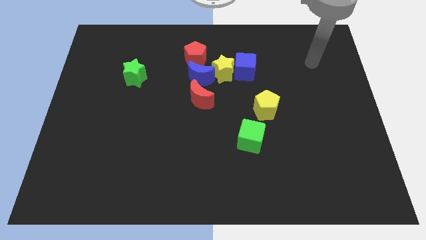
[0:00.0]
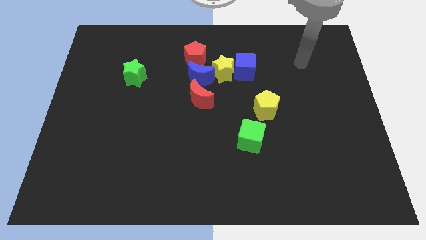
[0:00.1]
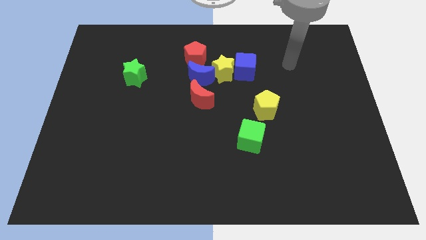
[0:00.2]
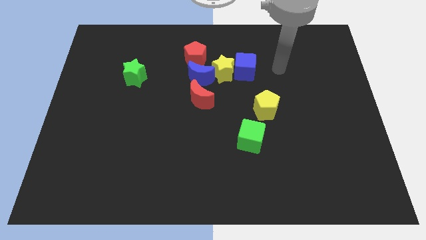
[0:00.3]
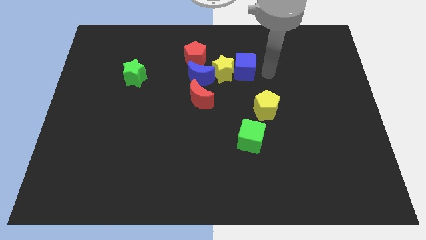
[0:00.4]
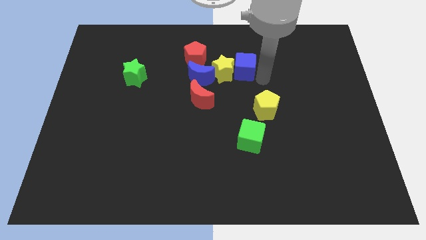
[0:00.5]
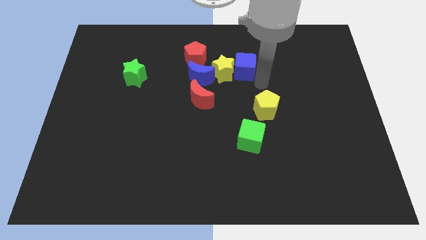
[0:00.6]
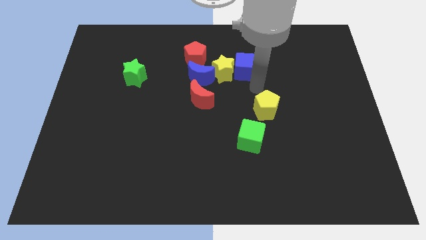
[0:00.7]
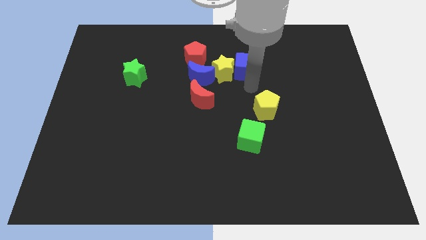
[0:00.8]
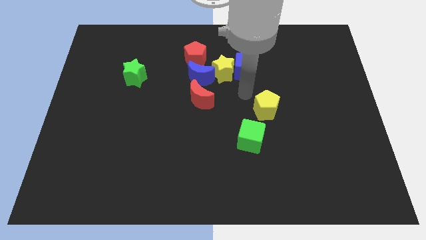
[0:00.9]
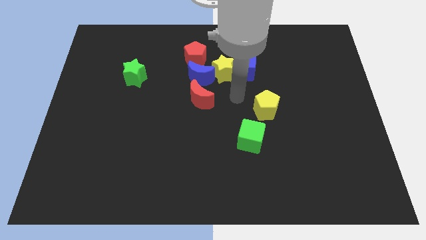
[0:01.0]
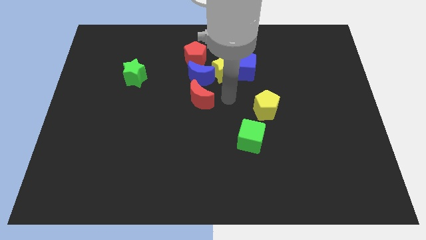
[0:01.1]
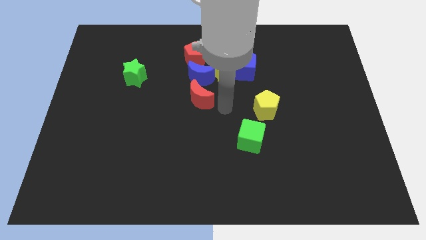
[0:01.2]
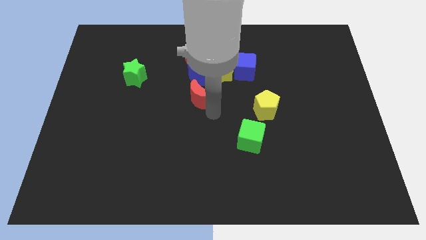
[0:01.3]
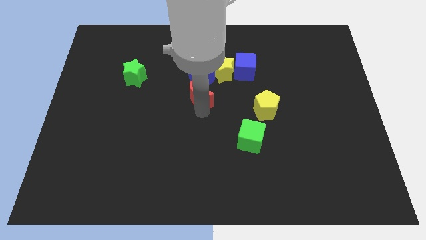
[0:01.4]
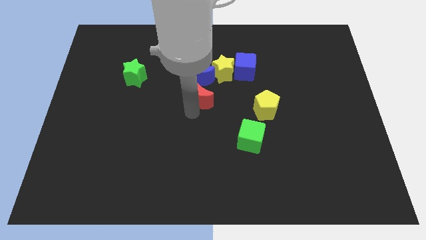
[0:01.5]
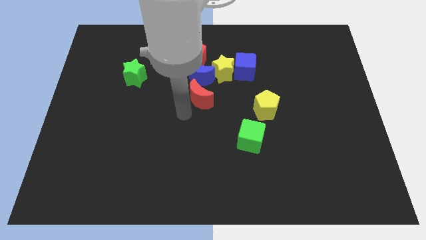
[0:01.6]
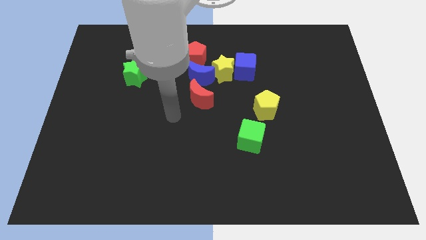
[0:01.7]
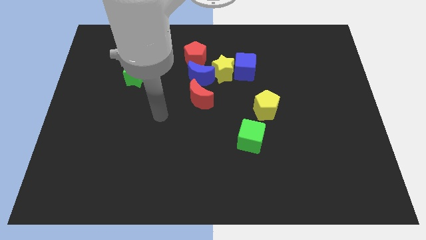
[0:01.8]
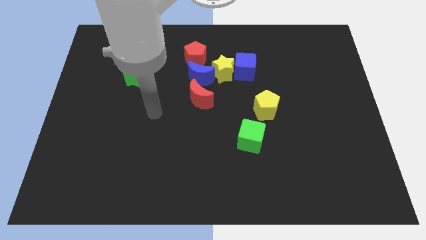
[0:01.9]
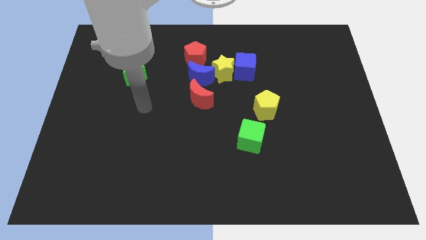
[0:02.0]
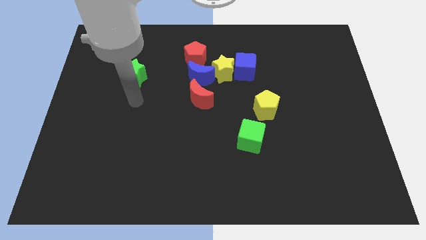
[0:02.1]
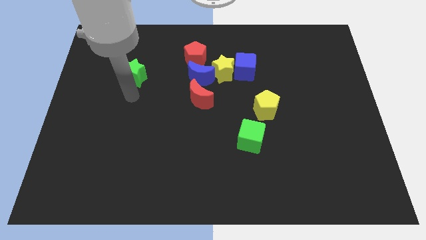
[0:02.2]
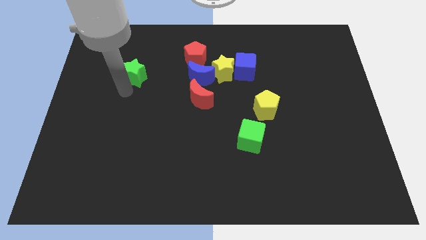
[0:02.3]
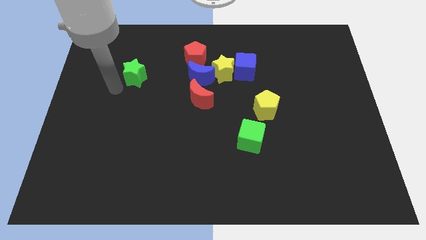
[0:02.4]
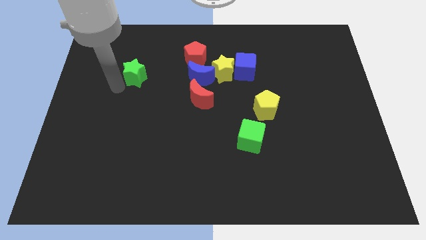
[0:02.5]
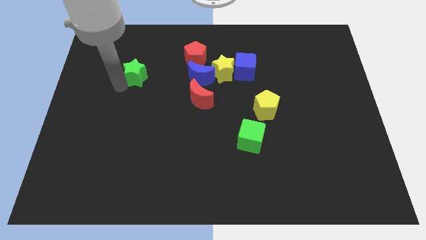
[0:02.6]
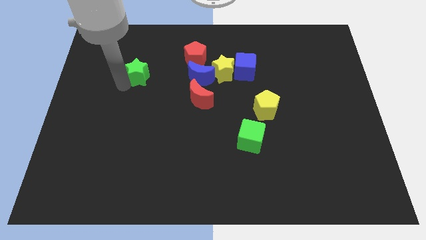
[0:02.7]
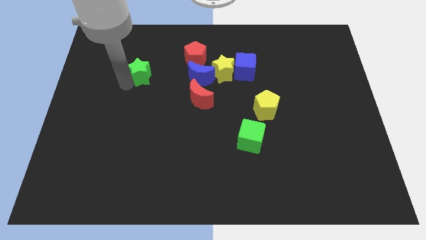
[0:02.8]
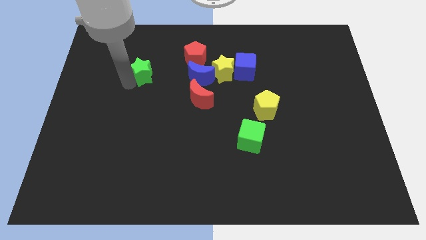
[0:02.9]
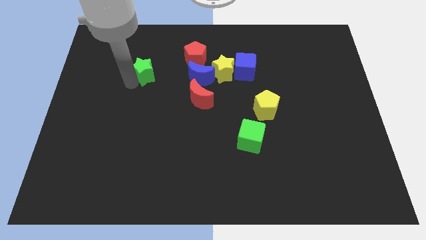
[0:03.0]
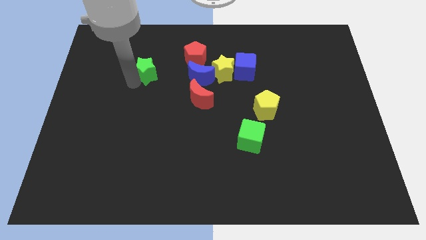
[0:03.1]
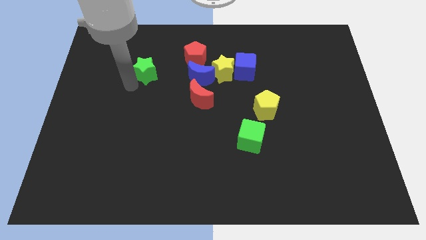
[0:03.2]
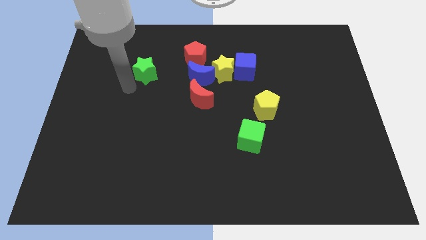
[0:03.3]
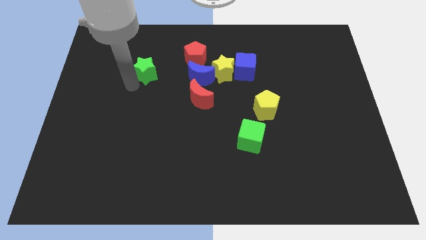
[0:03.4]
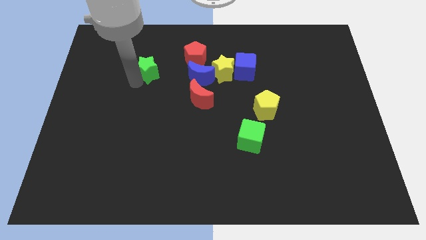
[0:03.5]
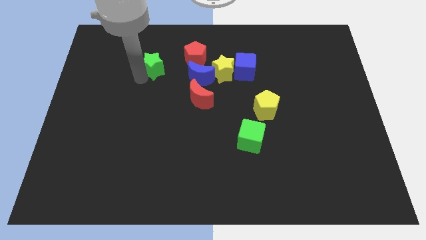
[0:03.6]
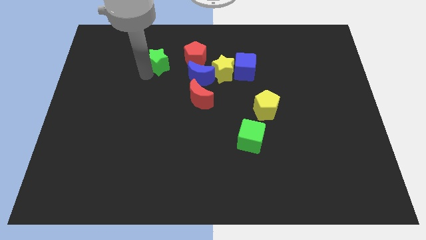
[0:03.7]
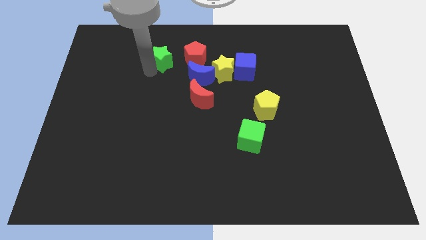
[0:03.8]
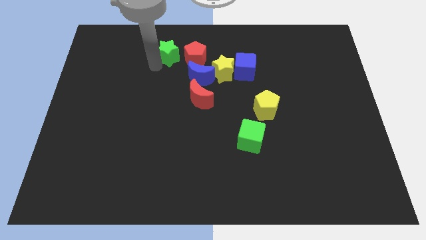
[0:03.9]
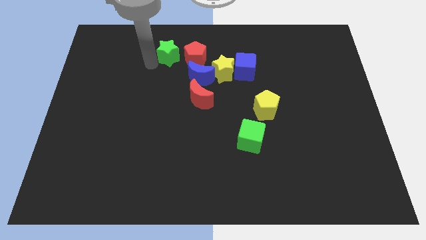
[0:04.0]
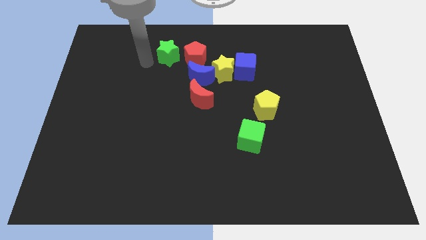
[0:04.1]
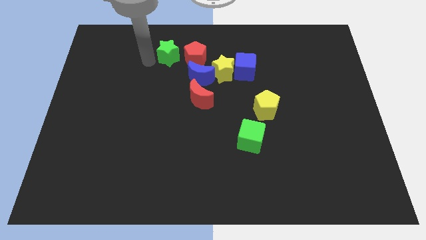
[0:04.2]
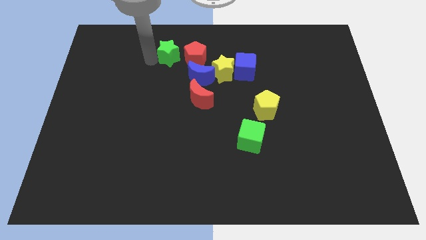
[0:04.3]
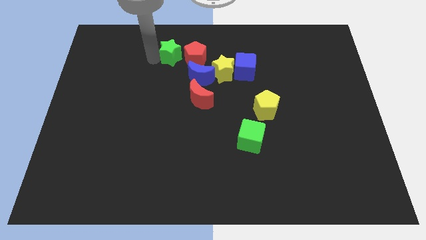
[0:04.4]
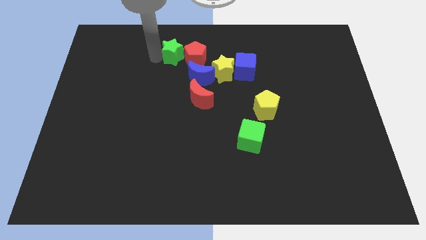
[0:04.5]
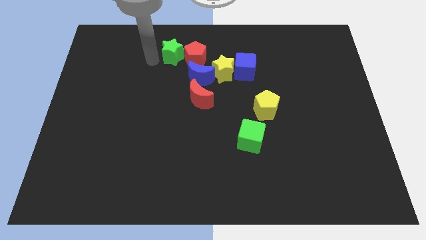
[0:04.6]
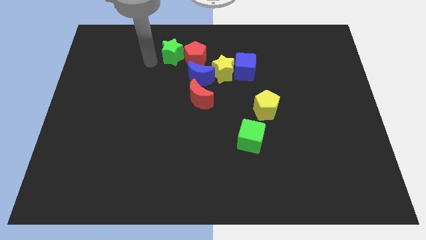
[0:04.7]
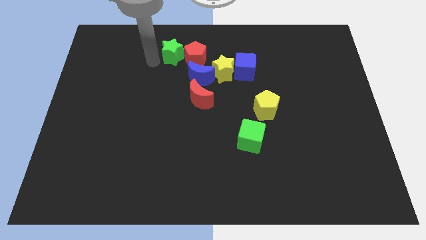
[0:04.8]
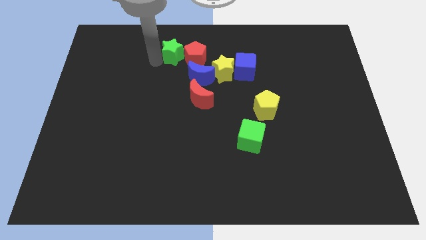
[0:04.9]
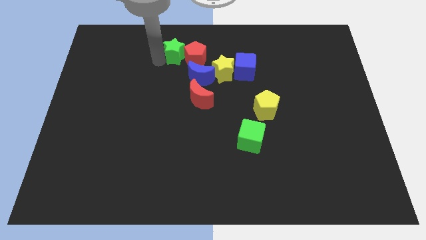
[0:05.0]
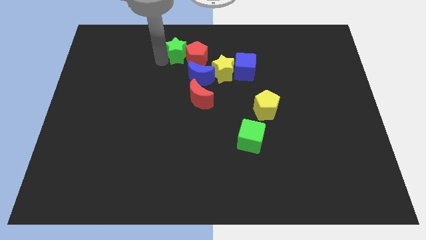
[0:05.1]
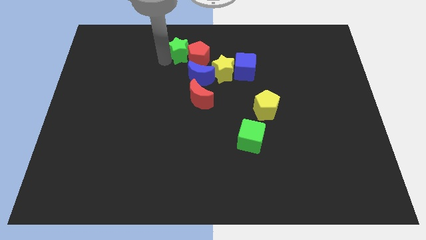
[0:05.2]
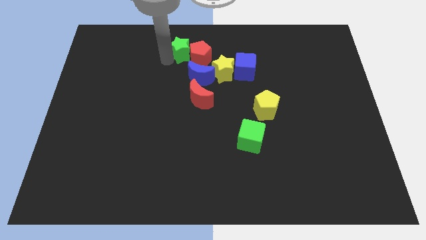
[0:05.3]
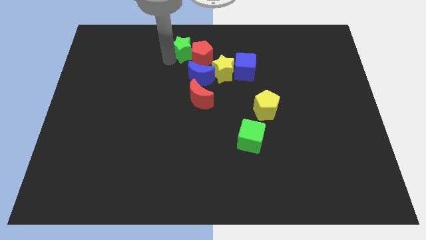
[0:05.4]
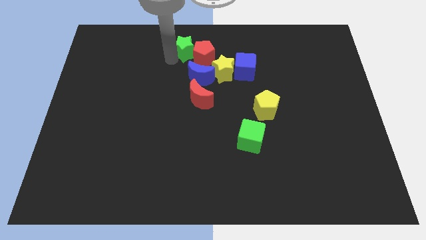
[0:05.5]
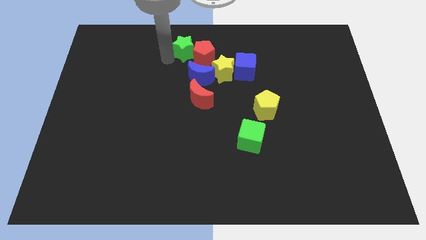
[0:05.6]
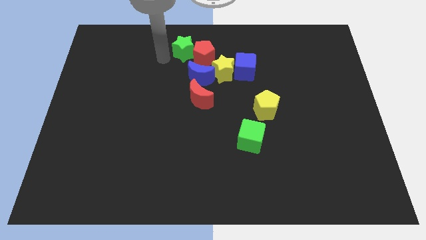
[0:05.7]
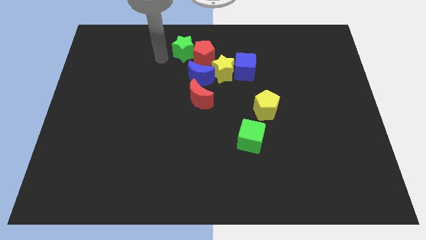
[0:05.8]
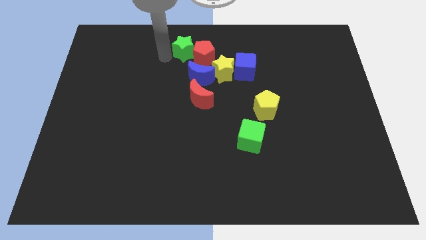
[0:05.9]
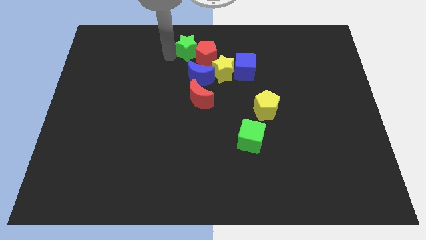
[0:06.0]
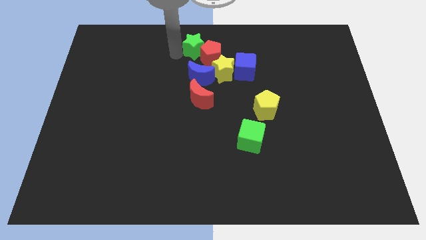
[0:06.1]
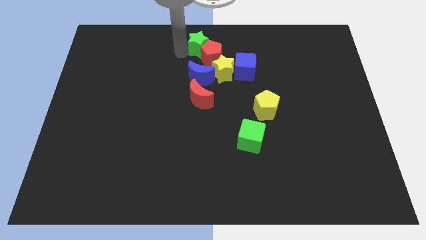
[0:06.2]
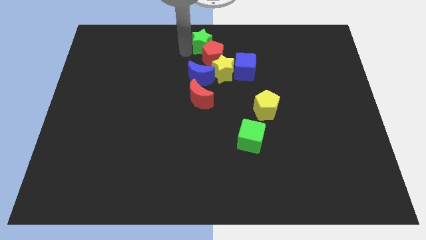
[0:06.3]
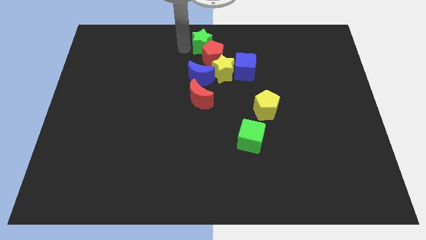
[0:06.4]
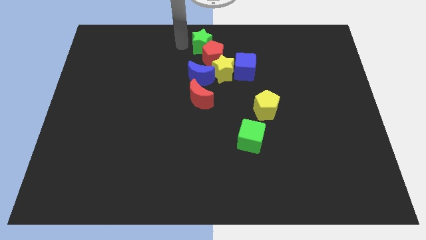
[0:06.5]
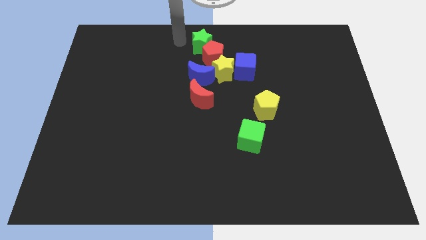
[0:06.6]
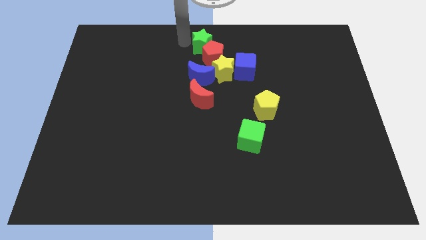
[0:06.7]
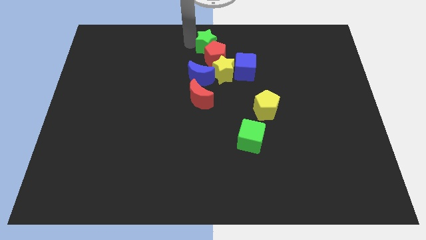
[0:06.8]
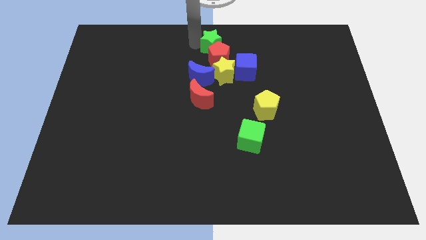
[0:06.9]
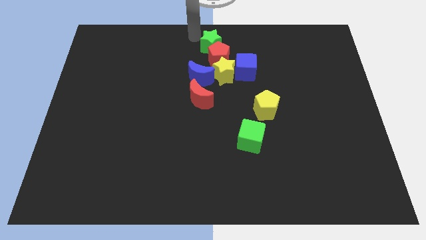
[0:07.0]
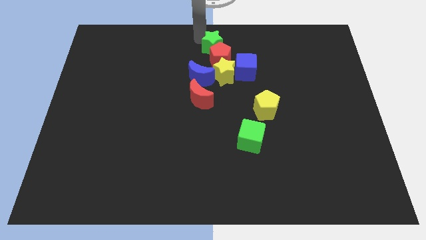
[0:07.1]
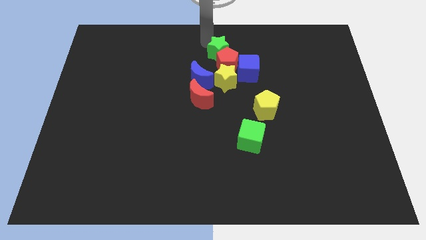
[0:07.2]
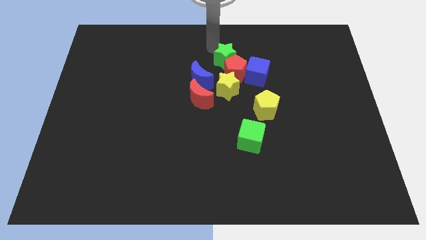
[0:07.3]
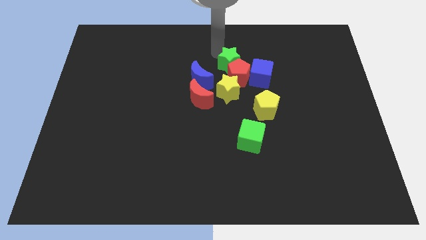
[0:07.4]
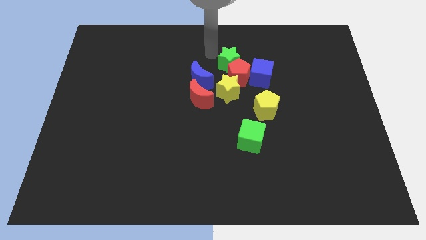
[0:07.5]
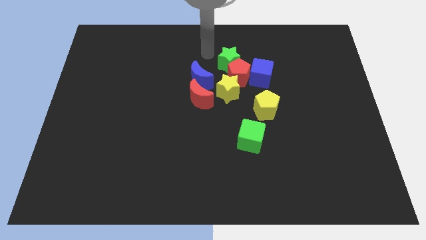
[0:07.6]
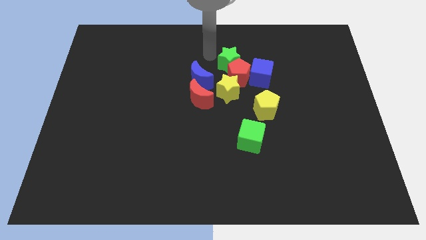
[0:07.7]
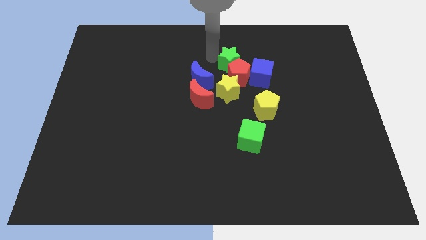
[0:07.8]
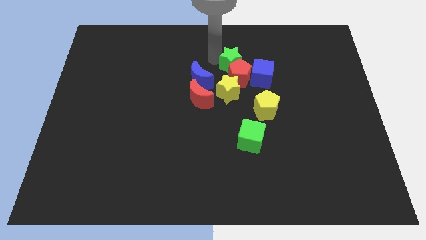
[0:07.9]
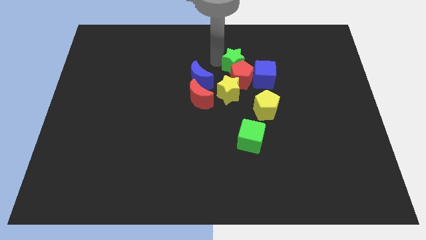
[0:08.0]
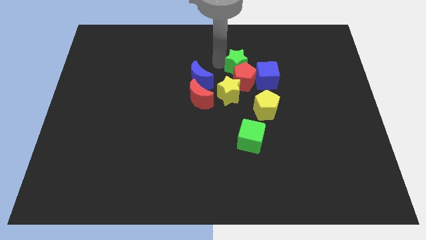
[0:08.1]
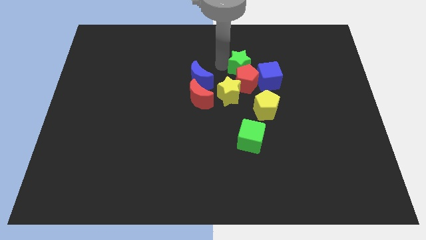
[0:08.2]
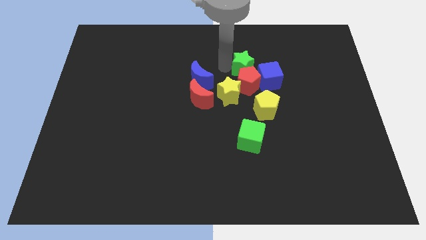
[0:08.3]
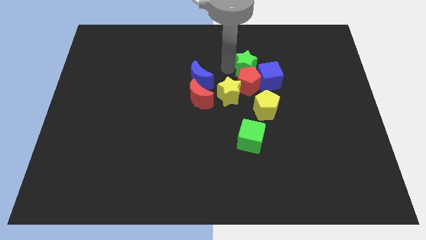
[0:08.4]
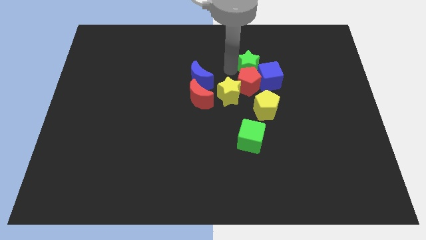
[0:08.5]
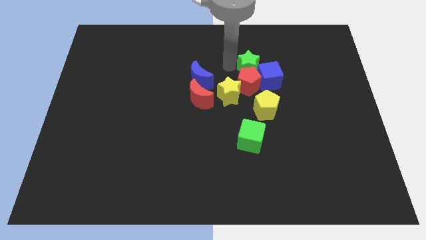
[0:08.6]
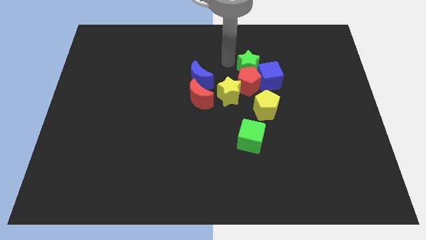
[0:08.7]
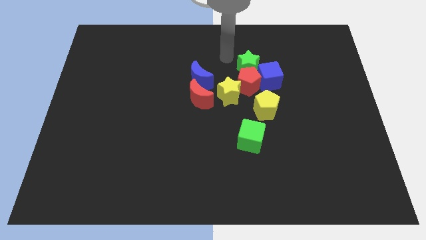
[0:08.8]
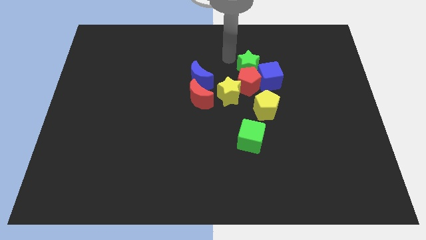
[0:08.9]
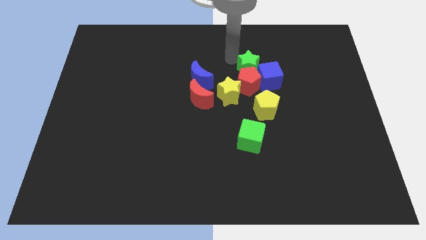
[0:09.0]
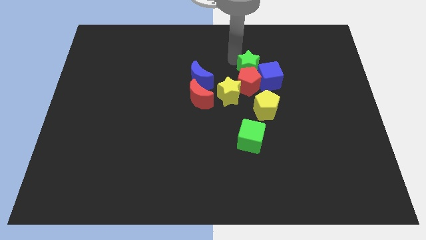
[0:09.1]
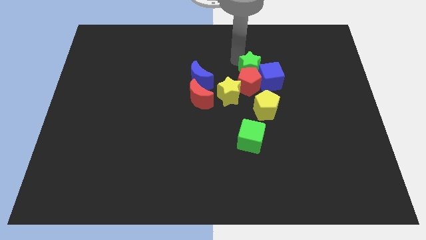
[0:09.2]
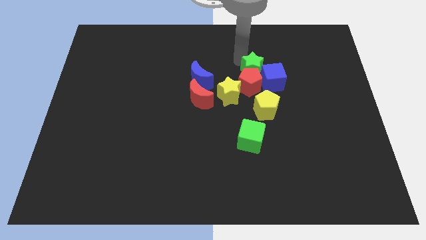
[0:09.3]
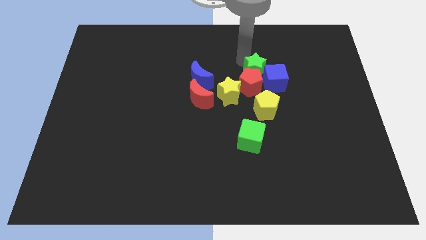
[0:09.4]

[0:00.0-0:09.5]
put the green star towards the blue cube
